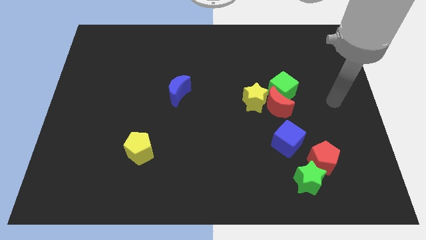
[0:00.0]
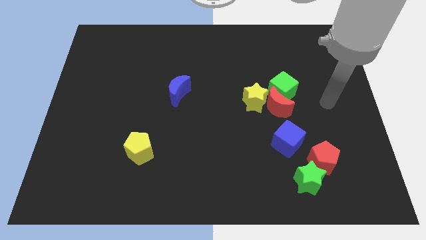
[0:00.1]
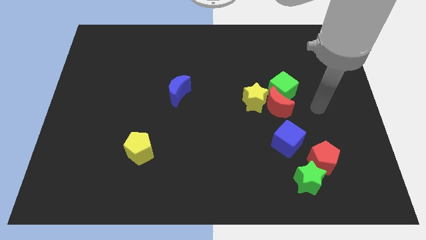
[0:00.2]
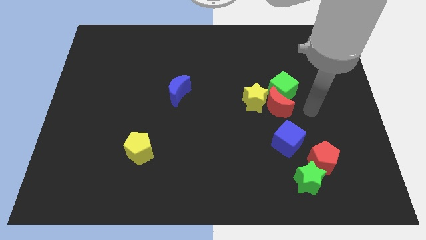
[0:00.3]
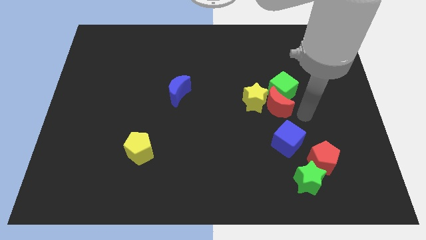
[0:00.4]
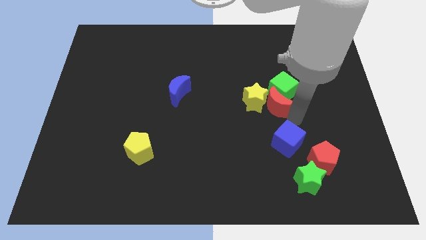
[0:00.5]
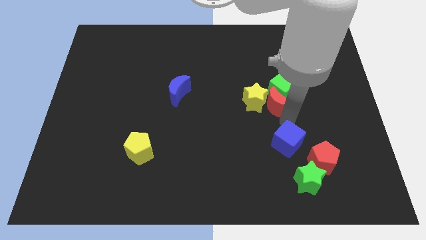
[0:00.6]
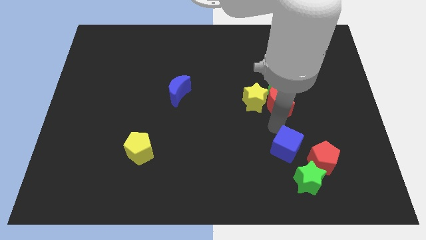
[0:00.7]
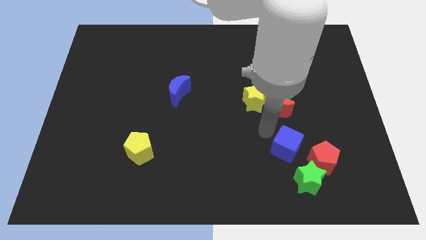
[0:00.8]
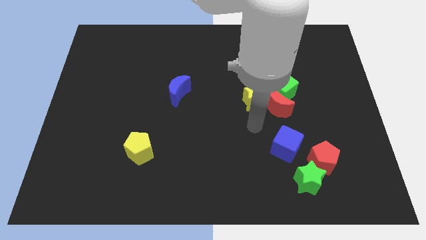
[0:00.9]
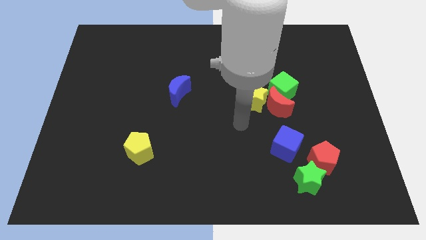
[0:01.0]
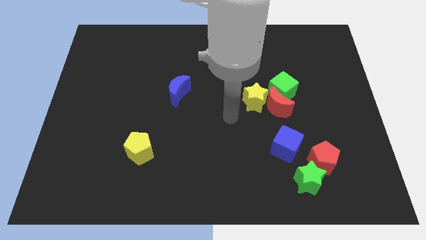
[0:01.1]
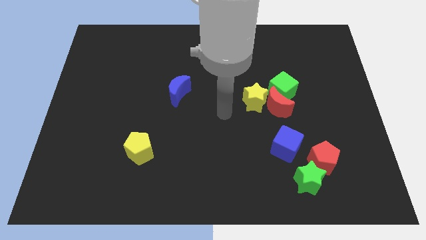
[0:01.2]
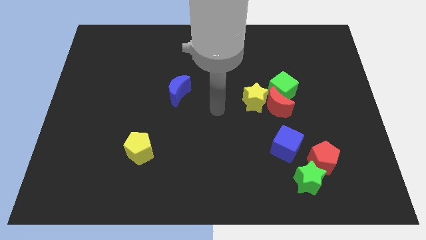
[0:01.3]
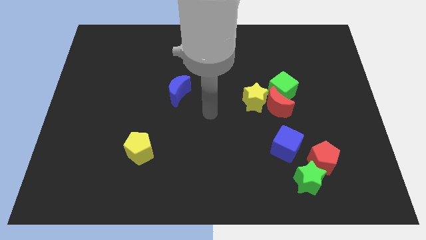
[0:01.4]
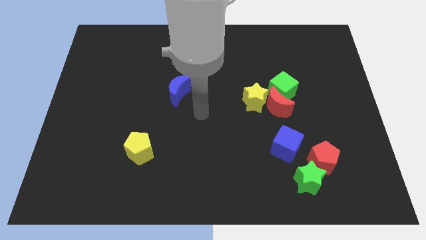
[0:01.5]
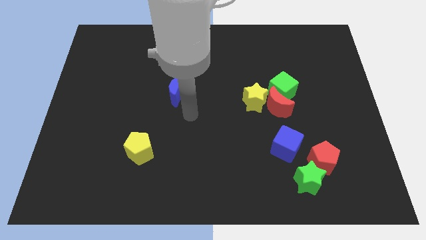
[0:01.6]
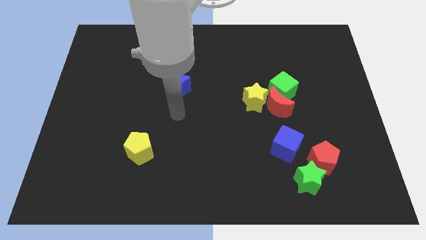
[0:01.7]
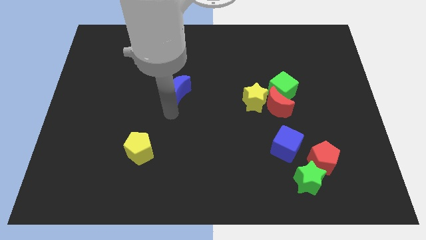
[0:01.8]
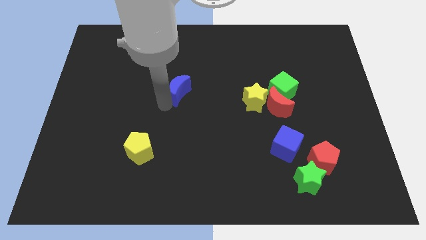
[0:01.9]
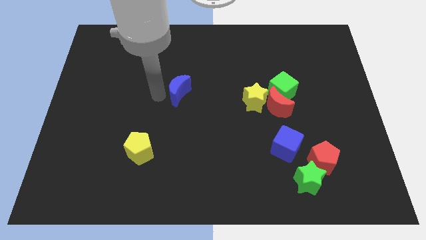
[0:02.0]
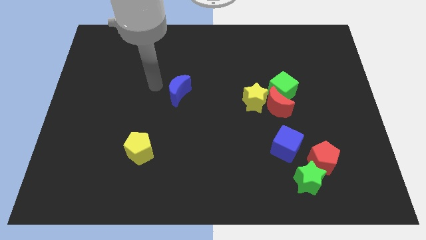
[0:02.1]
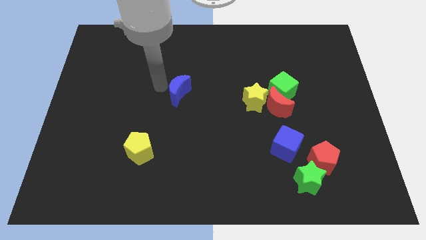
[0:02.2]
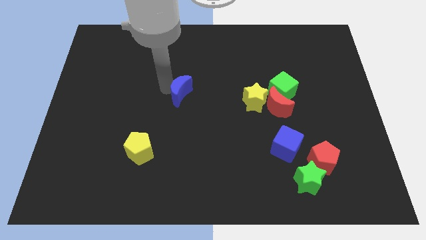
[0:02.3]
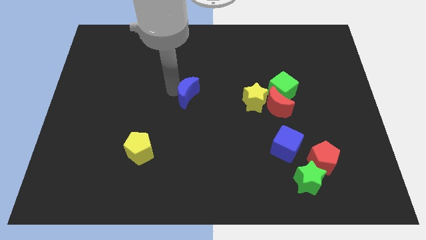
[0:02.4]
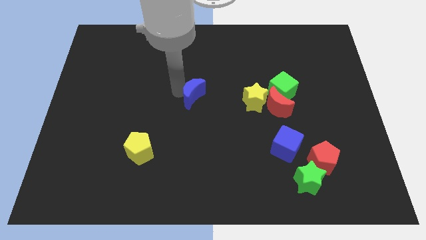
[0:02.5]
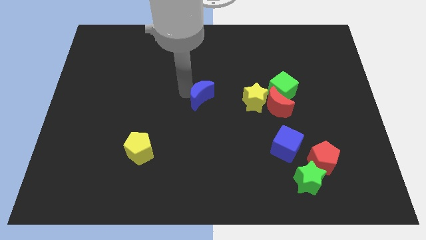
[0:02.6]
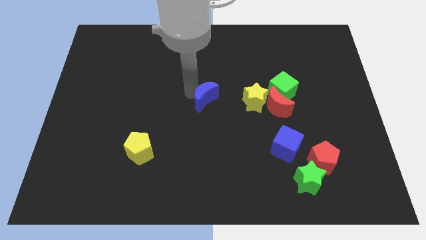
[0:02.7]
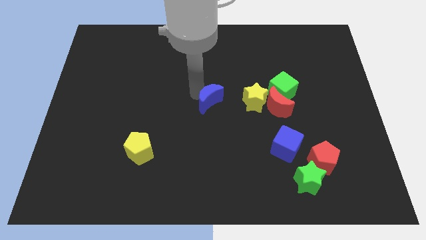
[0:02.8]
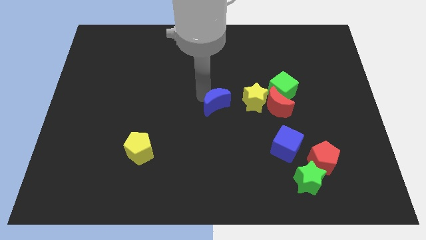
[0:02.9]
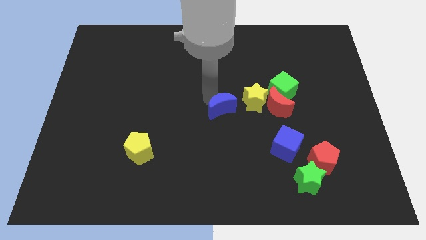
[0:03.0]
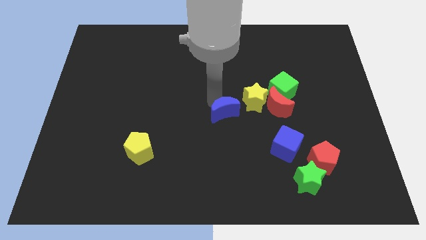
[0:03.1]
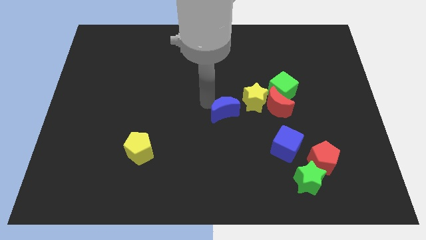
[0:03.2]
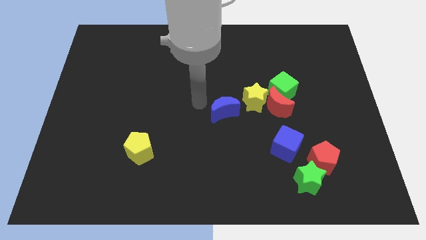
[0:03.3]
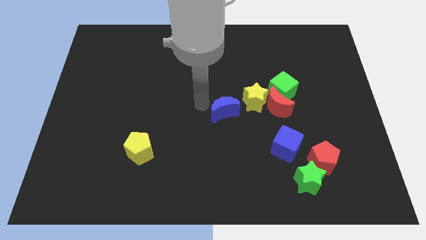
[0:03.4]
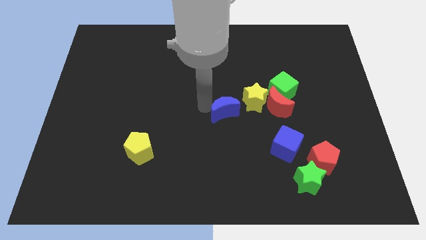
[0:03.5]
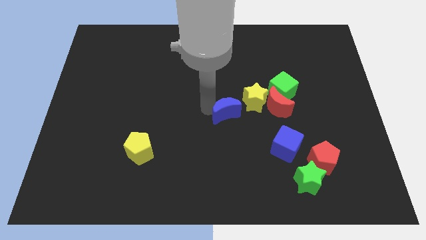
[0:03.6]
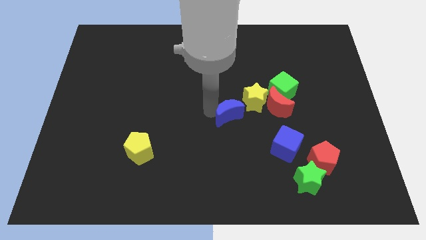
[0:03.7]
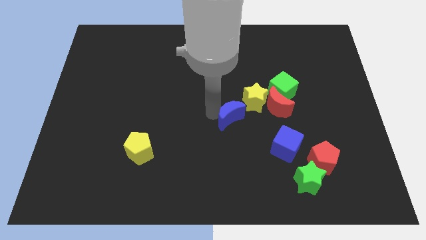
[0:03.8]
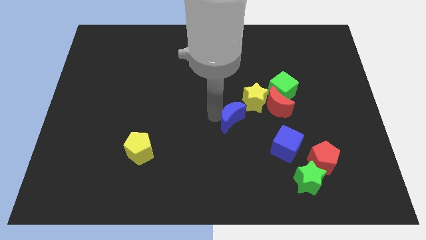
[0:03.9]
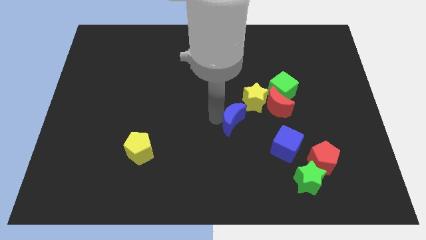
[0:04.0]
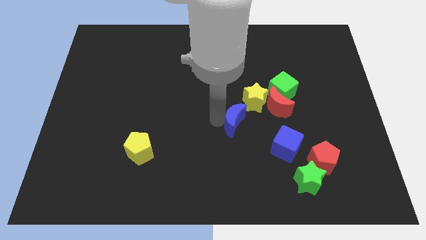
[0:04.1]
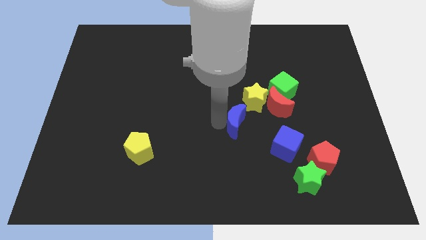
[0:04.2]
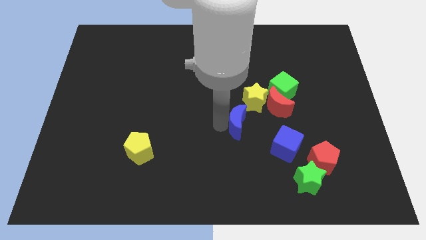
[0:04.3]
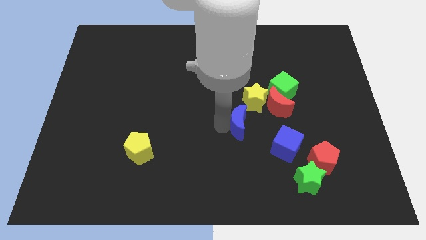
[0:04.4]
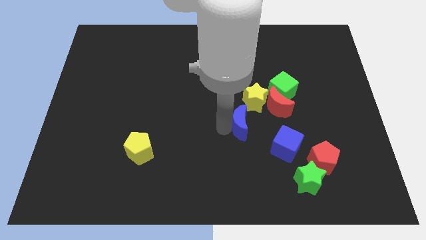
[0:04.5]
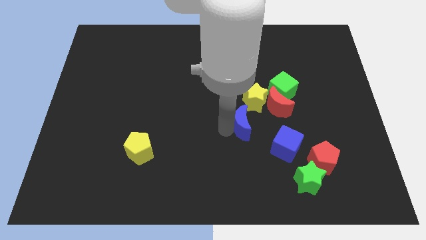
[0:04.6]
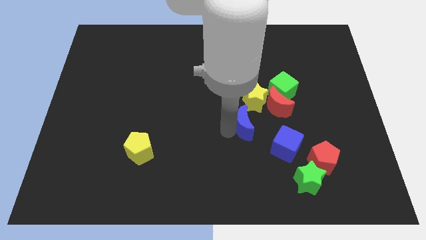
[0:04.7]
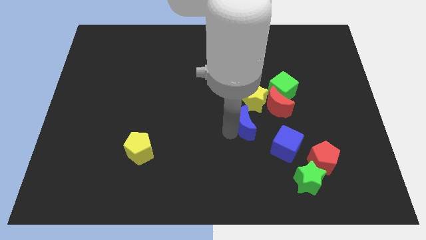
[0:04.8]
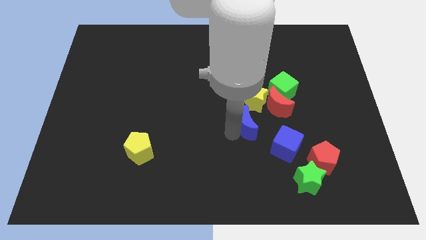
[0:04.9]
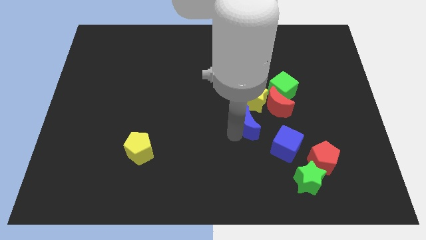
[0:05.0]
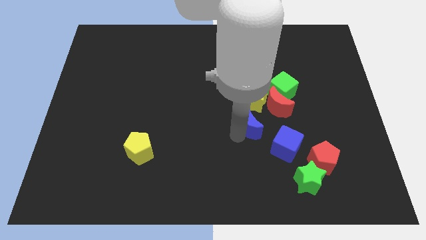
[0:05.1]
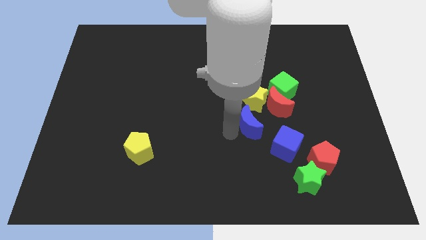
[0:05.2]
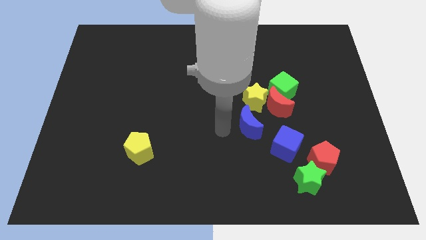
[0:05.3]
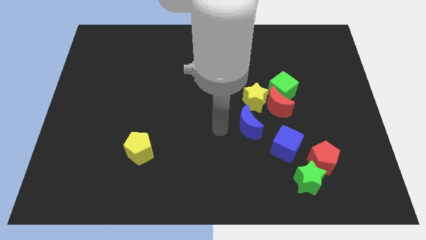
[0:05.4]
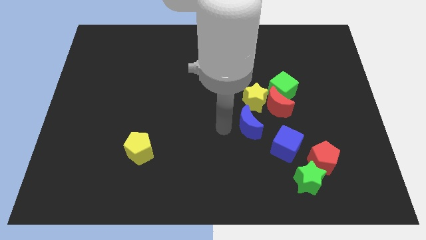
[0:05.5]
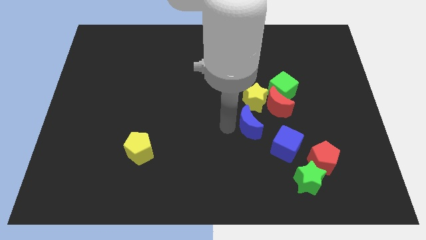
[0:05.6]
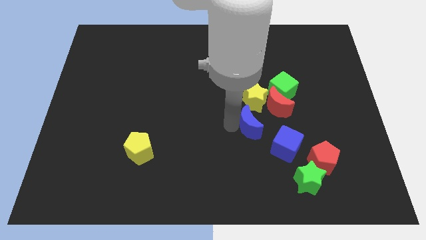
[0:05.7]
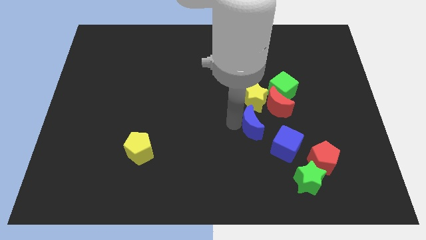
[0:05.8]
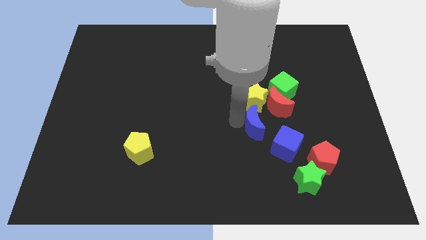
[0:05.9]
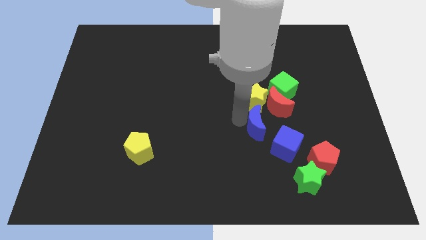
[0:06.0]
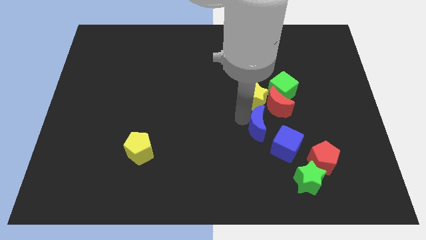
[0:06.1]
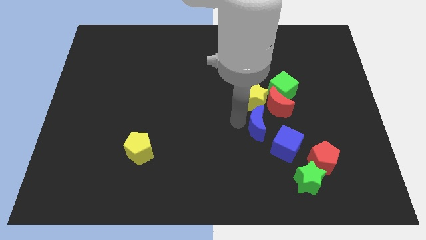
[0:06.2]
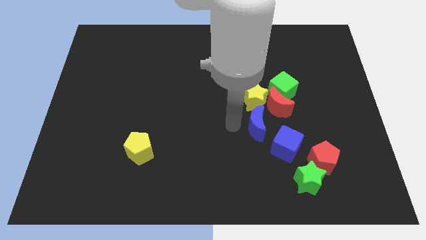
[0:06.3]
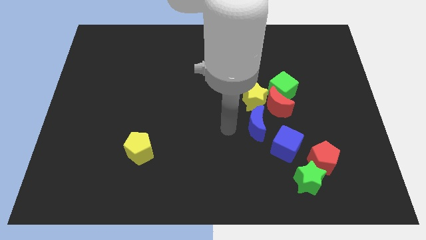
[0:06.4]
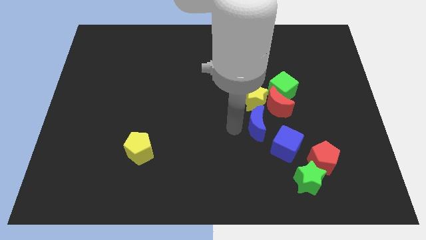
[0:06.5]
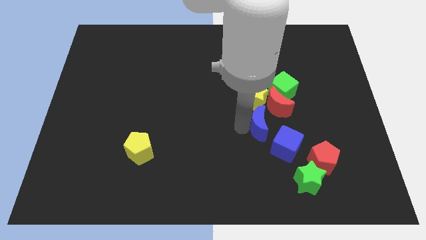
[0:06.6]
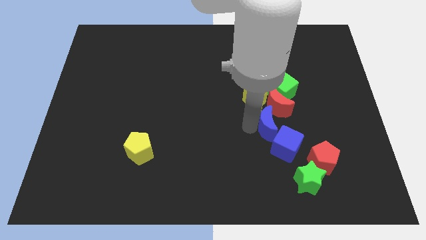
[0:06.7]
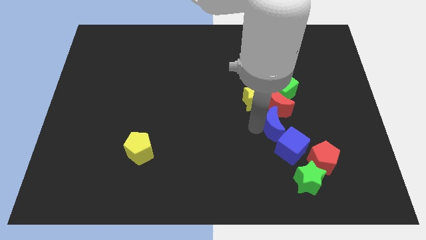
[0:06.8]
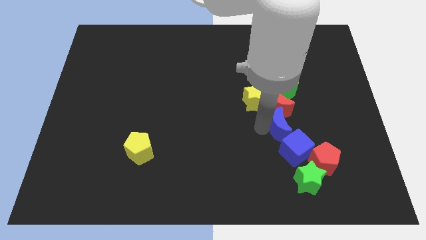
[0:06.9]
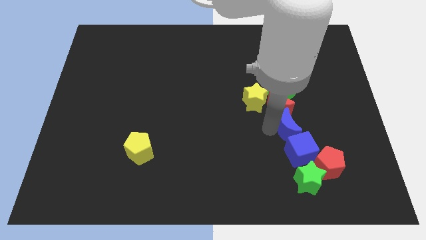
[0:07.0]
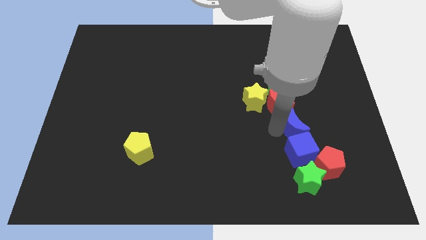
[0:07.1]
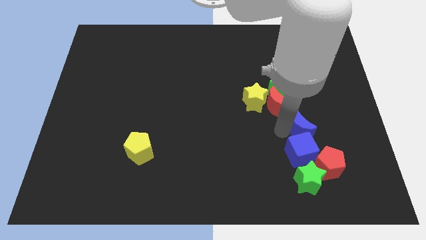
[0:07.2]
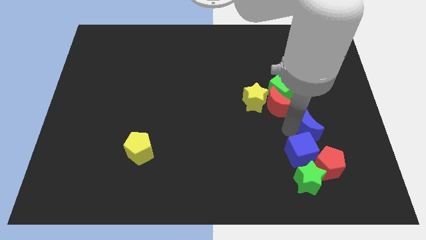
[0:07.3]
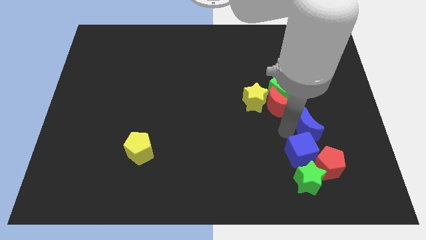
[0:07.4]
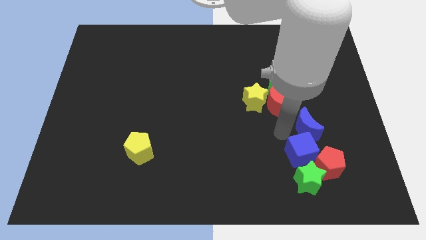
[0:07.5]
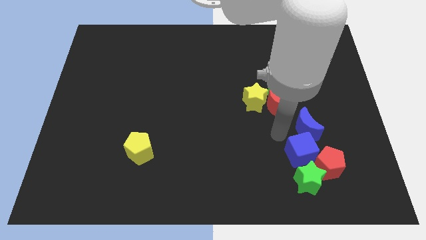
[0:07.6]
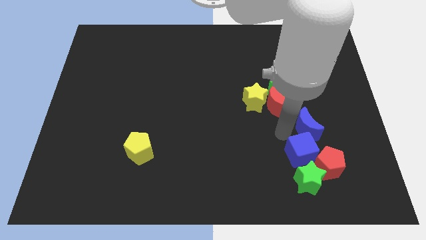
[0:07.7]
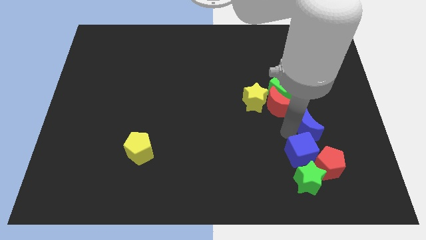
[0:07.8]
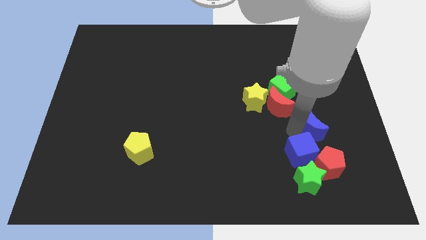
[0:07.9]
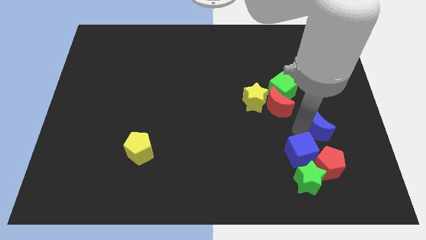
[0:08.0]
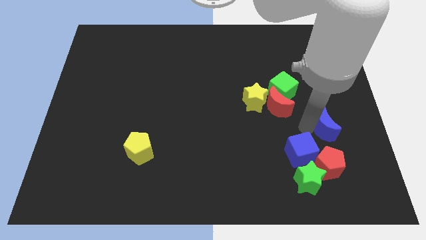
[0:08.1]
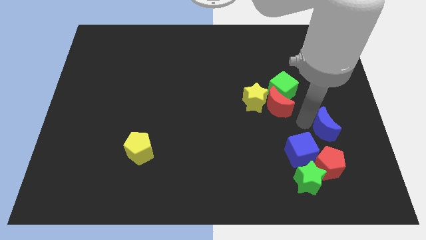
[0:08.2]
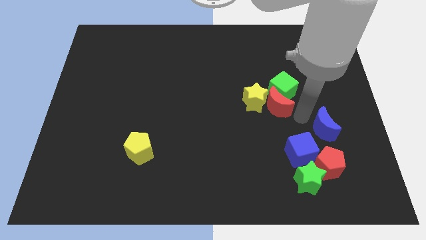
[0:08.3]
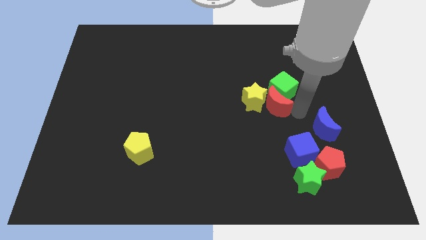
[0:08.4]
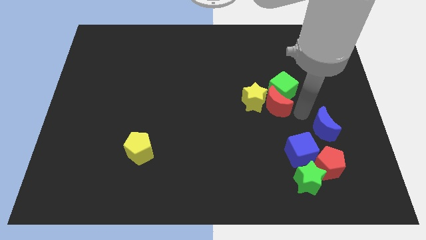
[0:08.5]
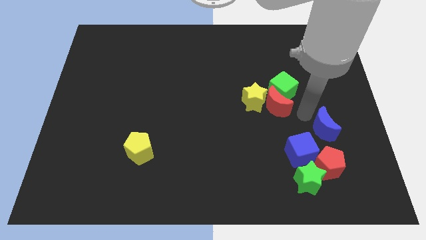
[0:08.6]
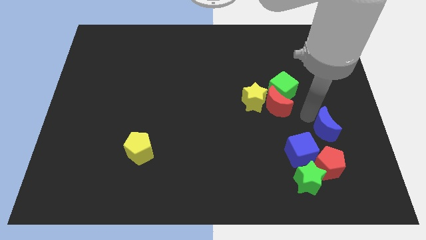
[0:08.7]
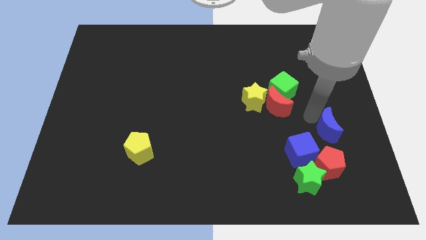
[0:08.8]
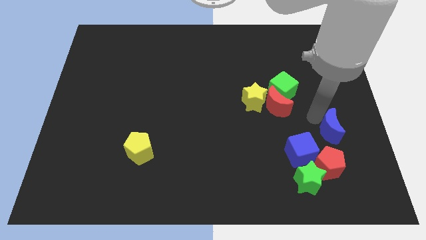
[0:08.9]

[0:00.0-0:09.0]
push the blue moon diagonally up and to the right of the red pentagon
